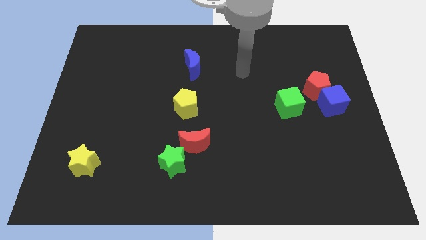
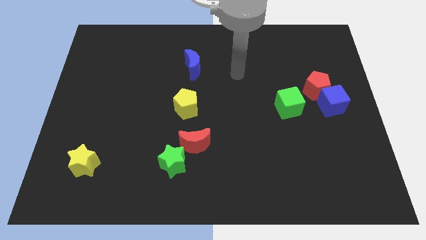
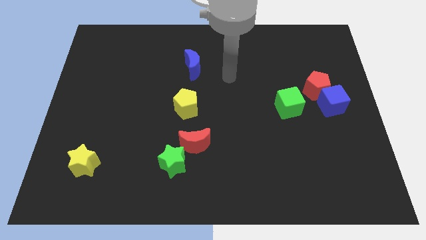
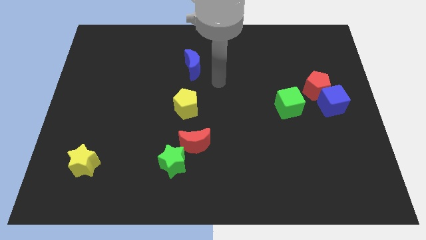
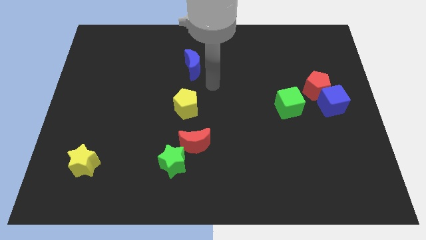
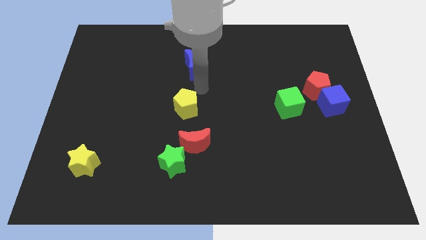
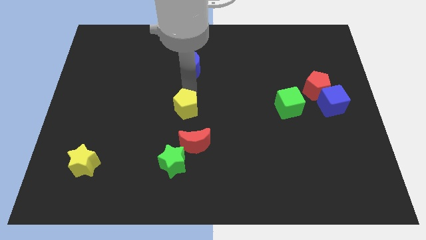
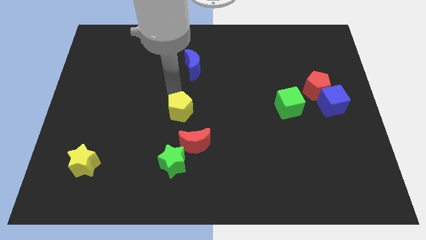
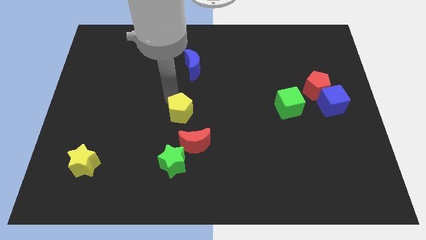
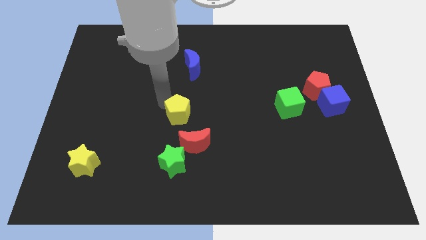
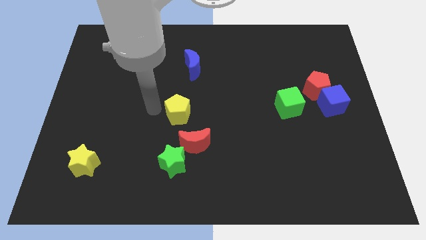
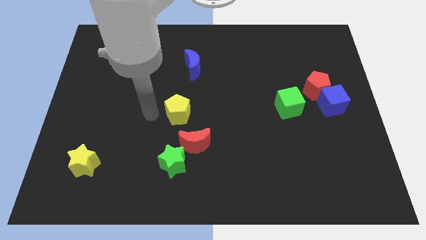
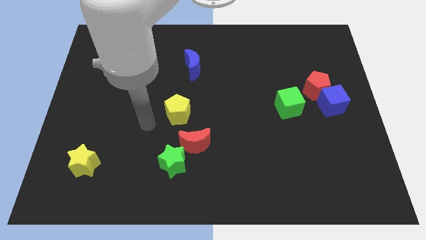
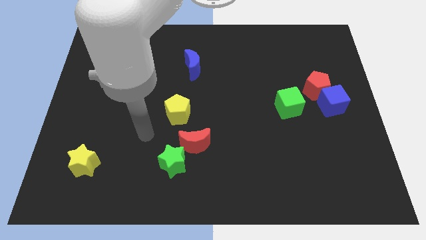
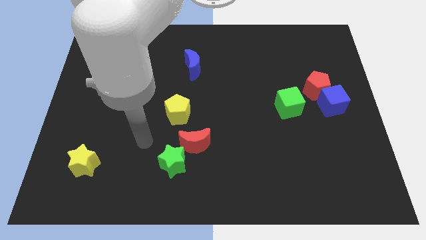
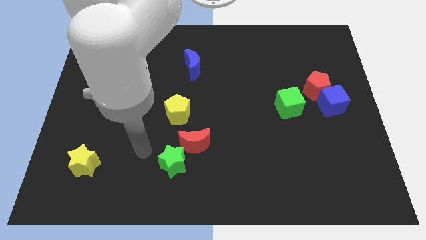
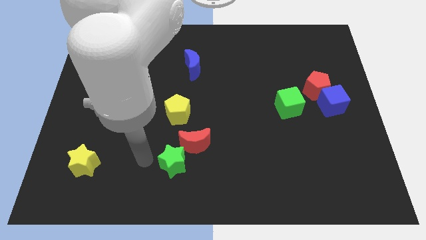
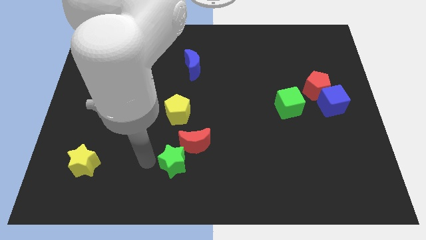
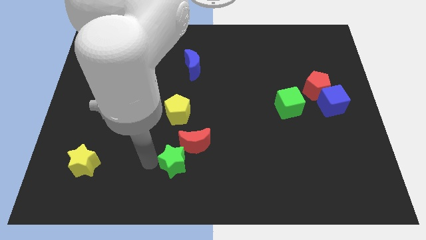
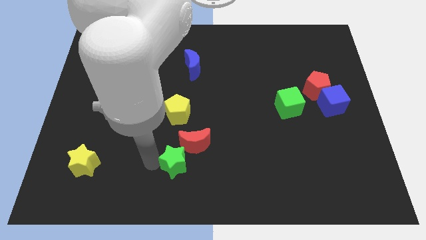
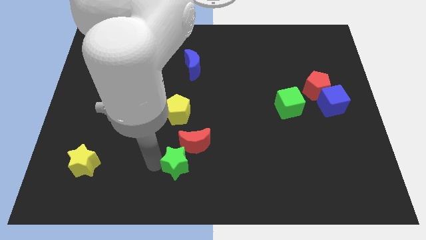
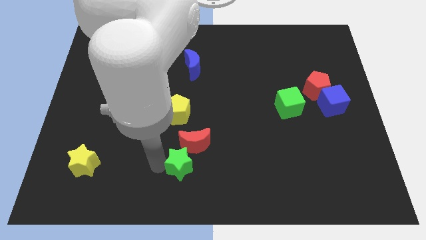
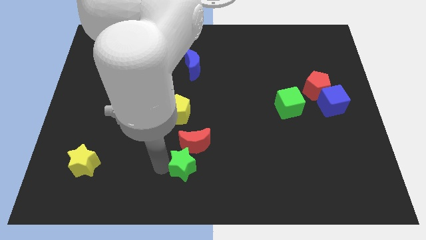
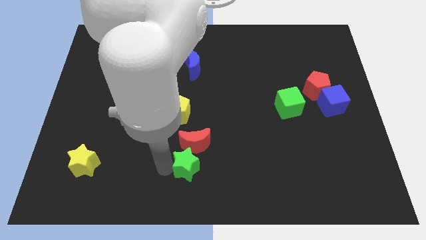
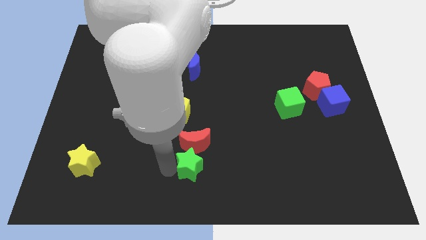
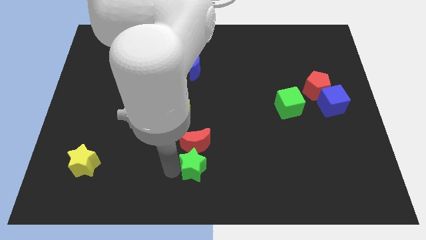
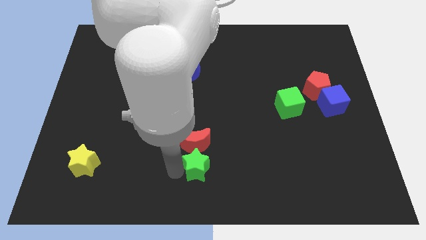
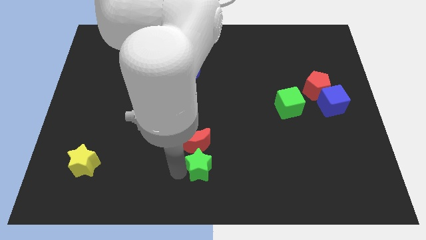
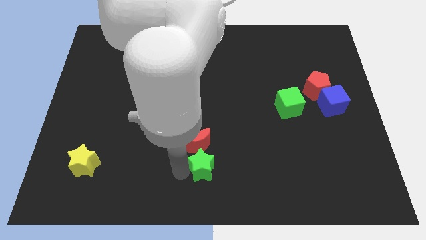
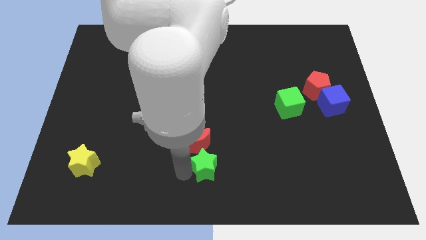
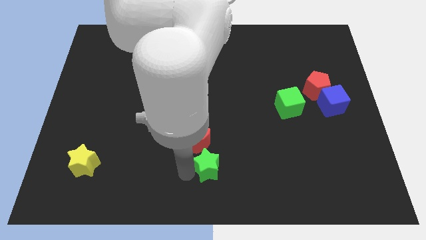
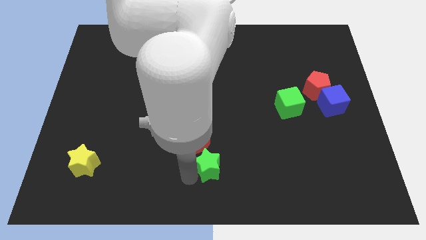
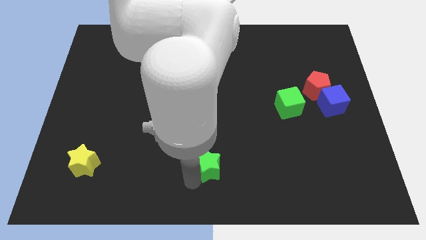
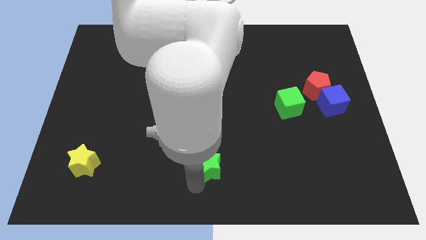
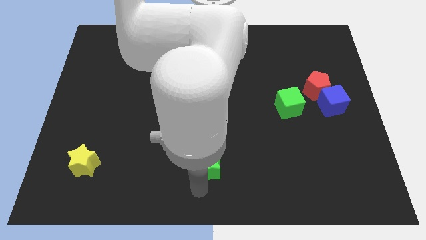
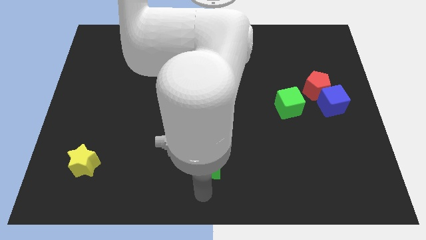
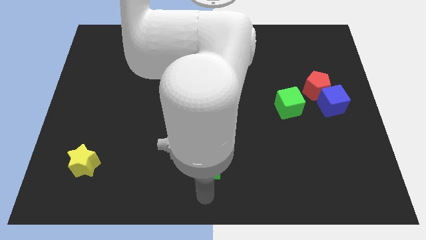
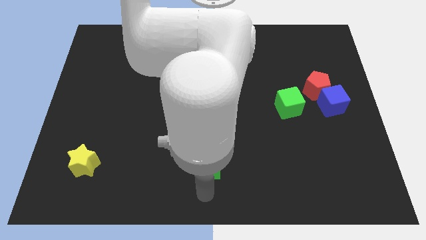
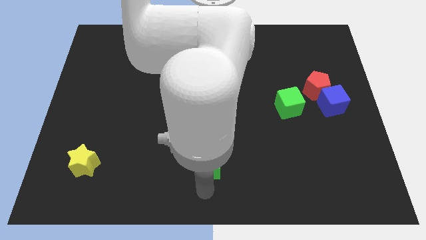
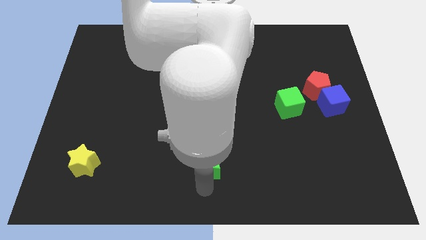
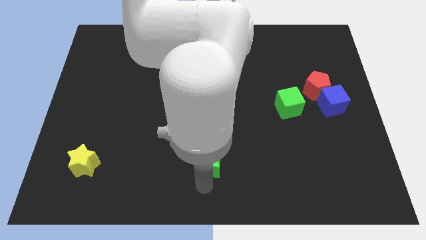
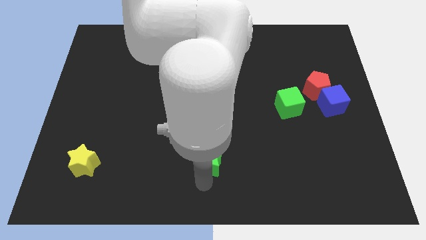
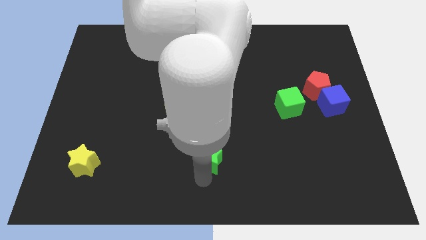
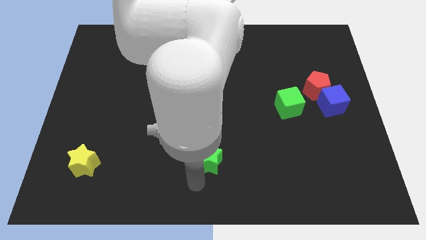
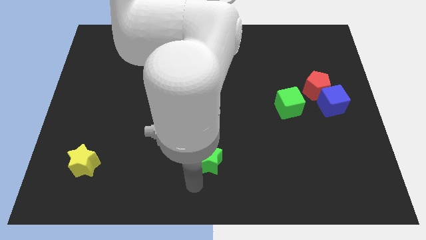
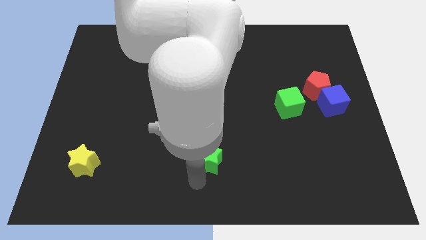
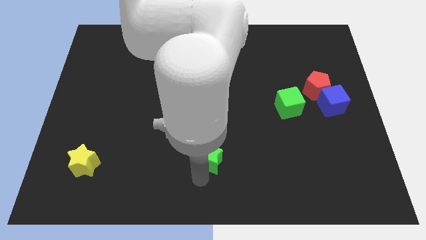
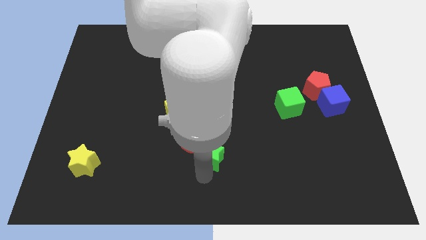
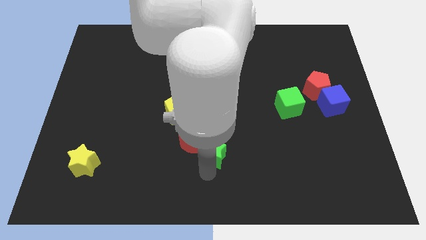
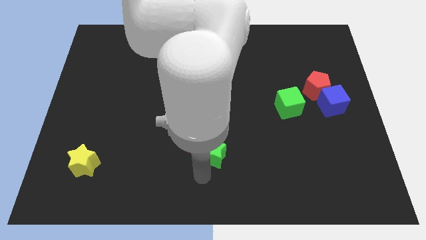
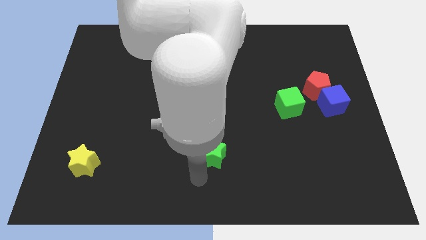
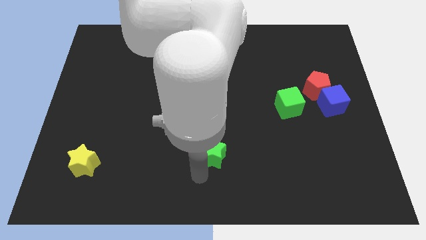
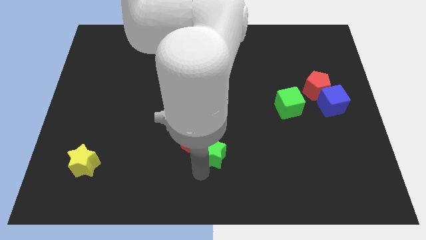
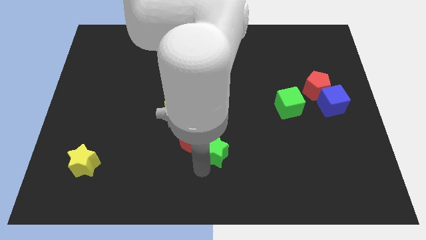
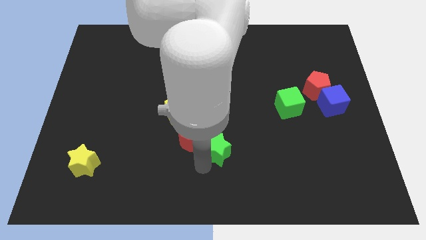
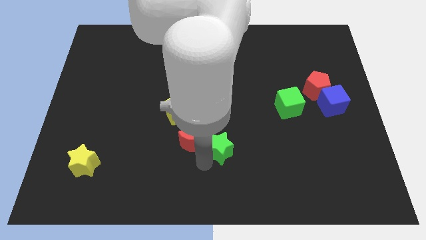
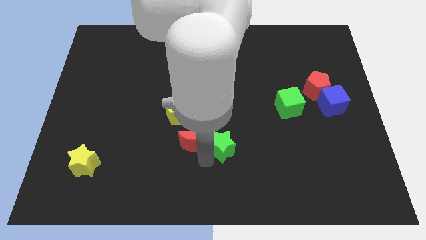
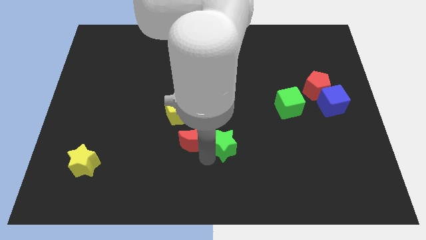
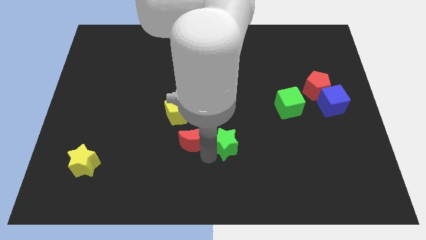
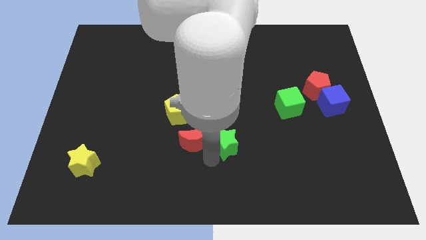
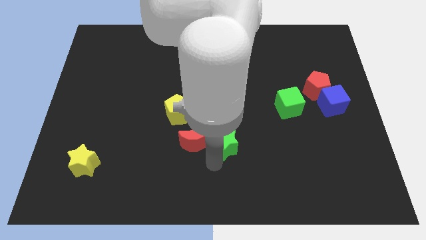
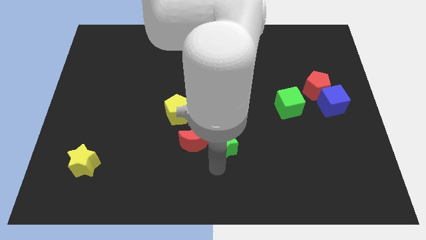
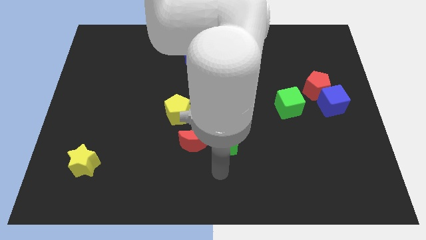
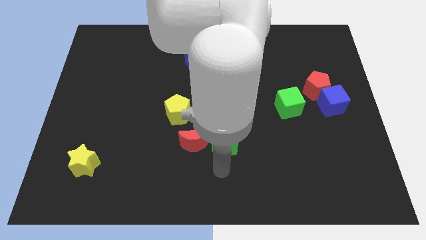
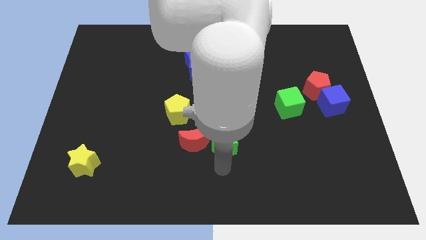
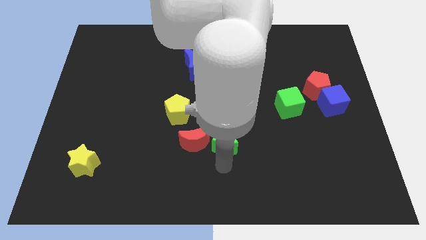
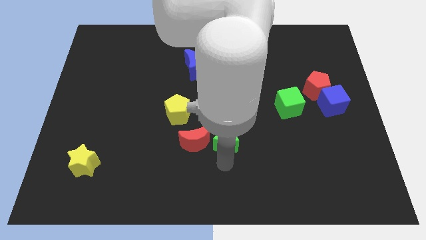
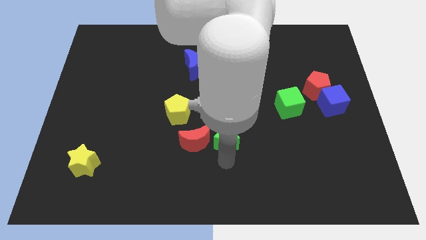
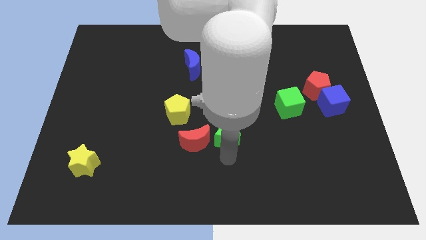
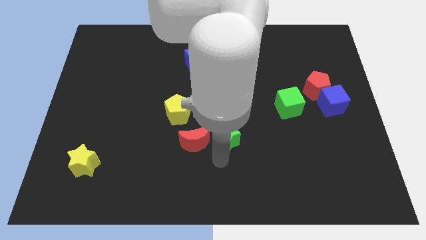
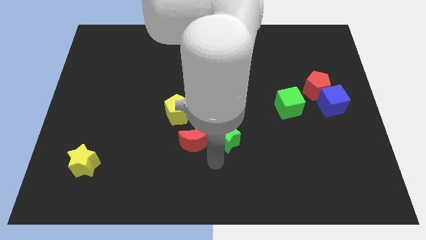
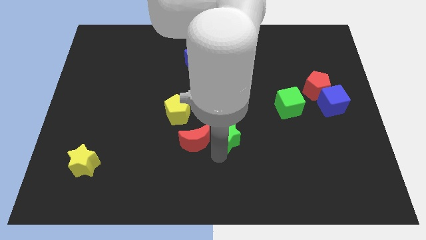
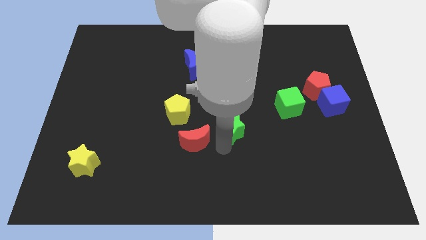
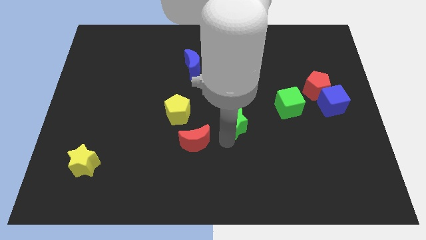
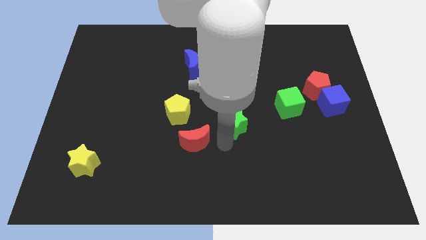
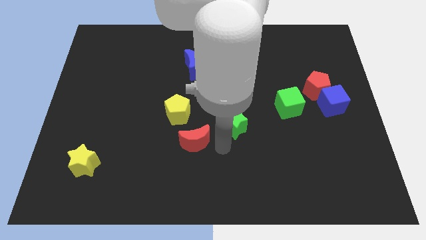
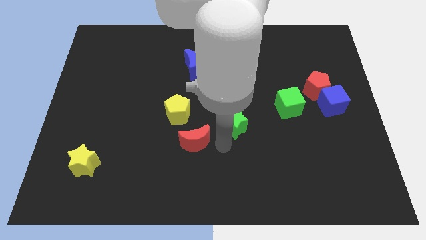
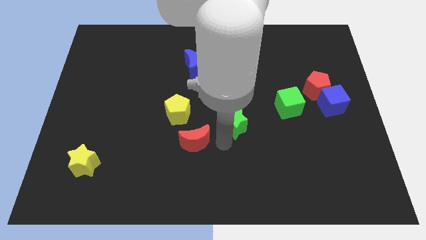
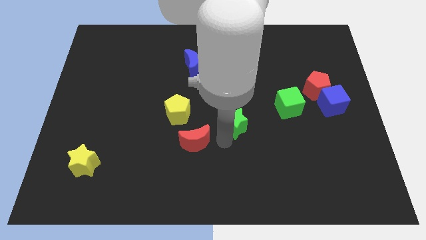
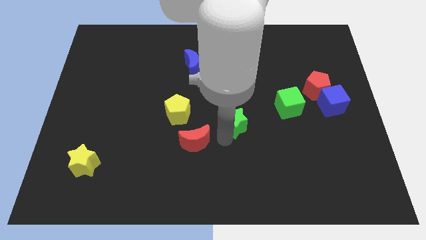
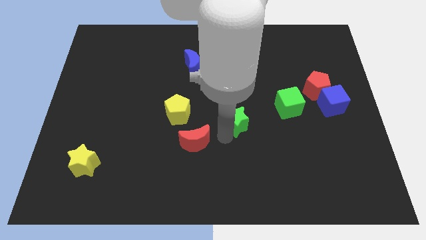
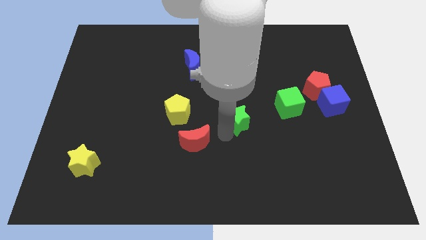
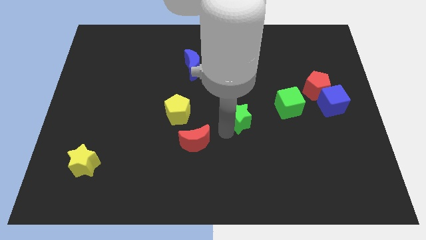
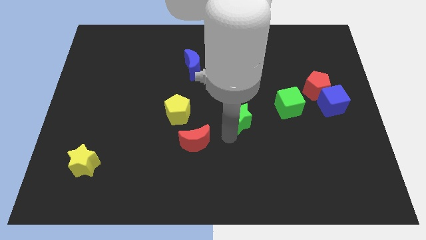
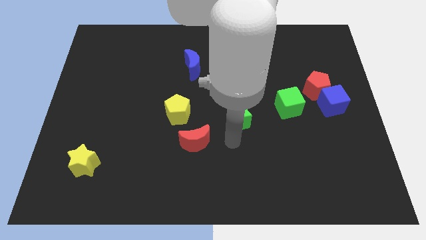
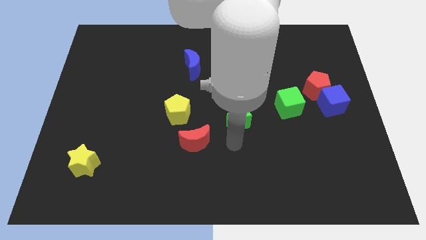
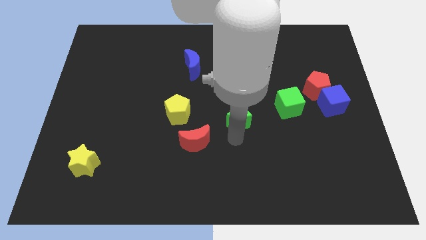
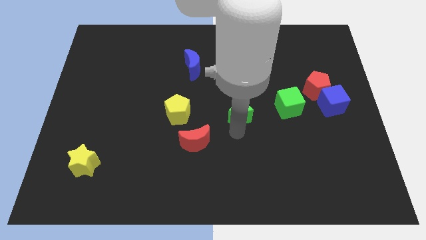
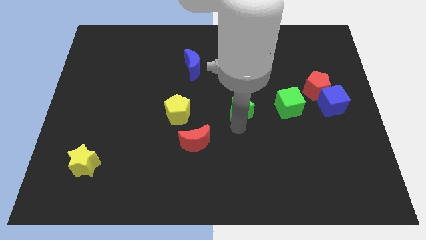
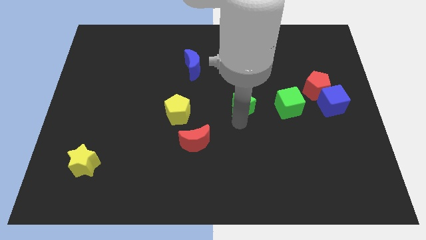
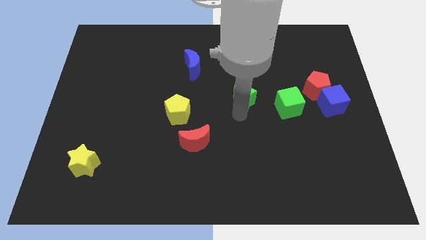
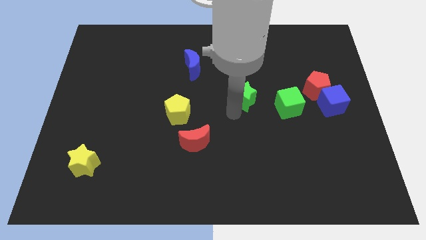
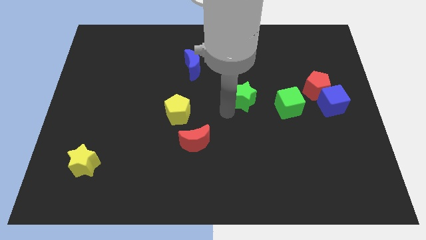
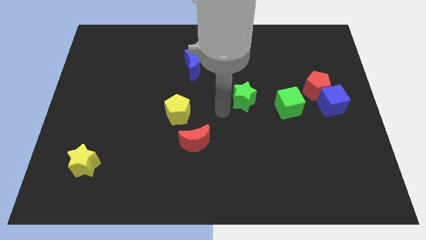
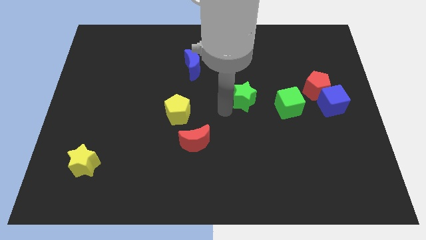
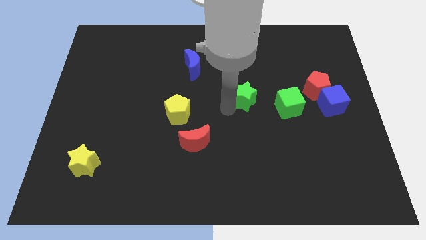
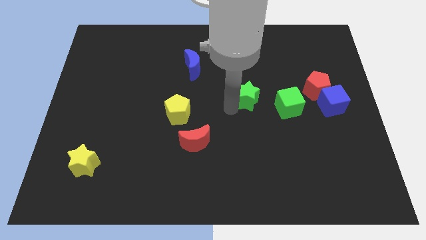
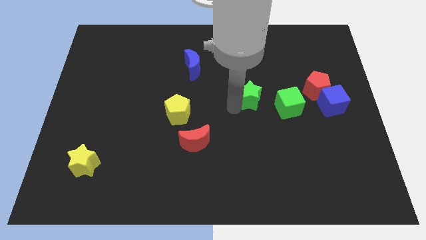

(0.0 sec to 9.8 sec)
move the green star to the top left of the green cube
